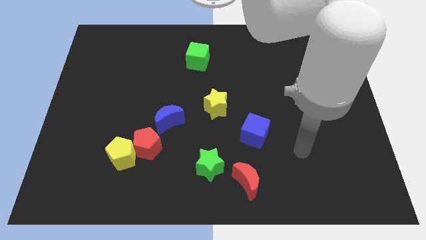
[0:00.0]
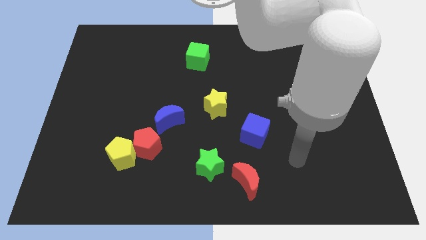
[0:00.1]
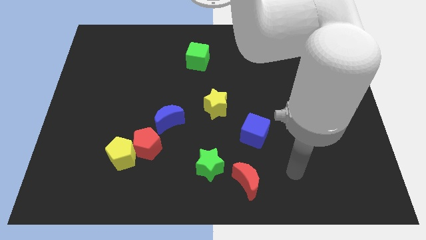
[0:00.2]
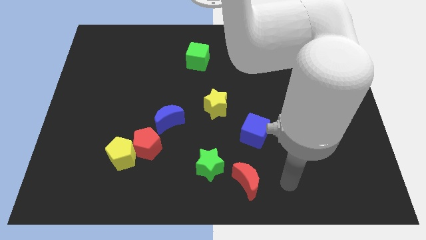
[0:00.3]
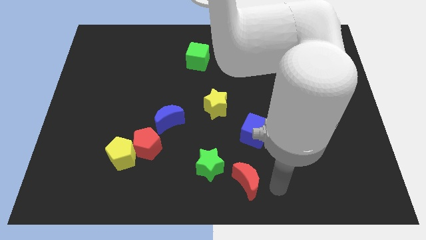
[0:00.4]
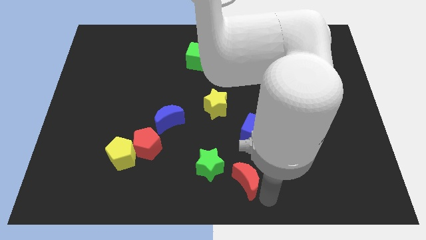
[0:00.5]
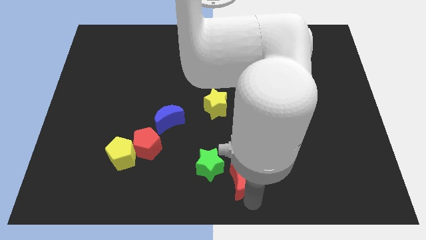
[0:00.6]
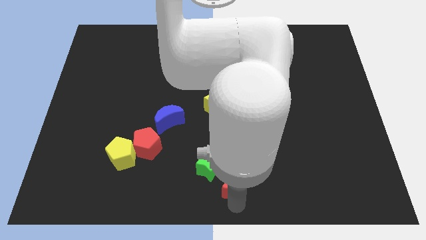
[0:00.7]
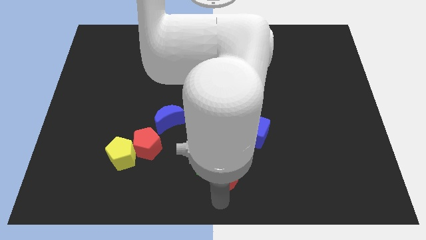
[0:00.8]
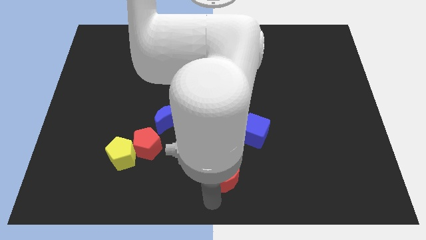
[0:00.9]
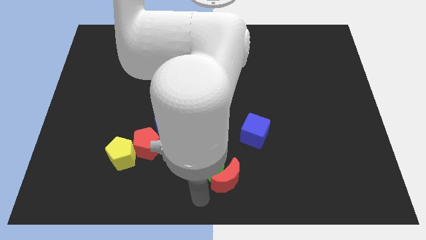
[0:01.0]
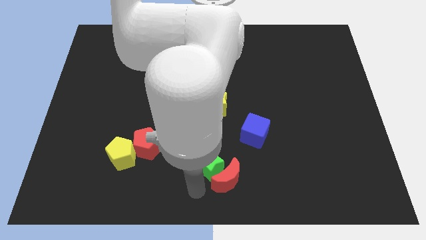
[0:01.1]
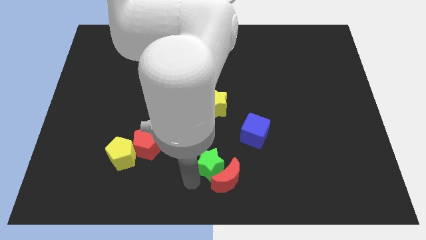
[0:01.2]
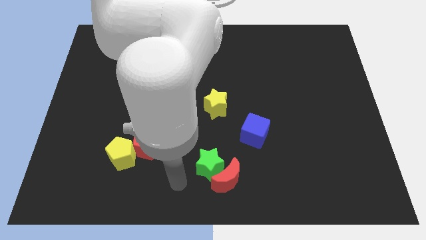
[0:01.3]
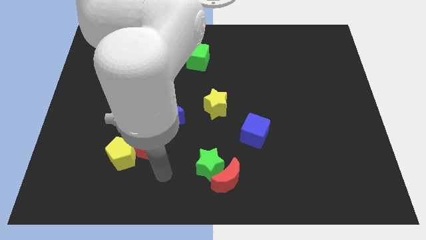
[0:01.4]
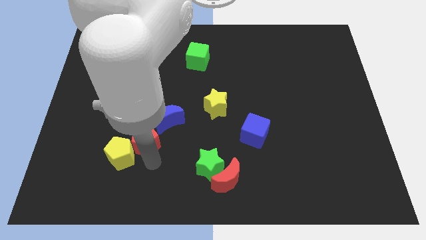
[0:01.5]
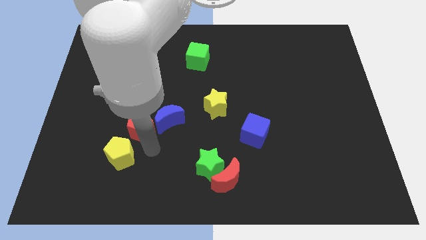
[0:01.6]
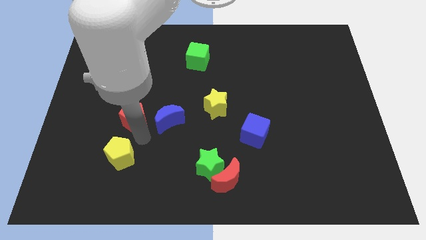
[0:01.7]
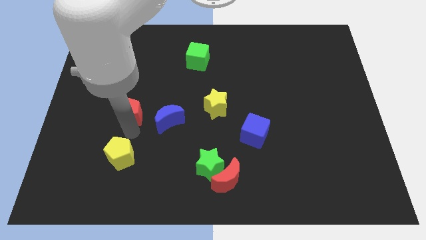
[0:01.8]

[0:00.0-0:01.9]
move the yellow pentagon away from the red pentagon

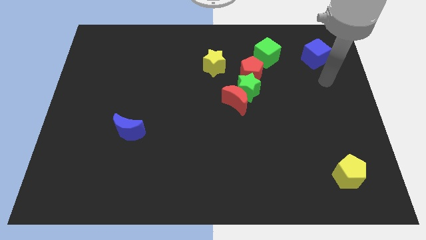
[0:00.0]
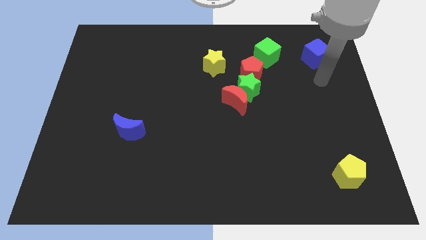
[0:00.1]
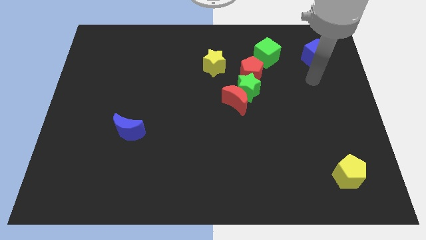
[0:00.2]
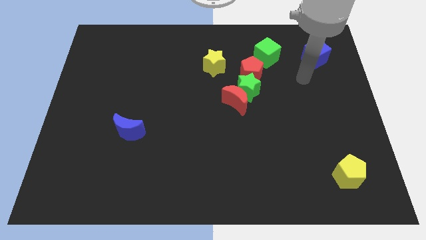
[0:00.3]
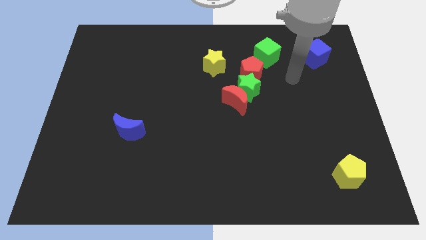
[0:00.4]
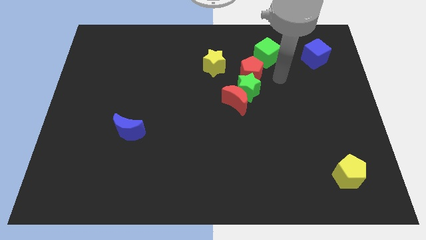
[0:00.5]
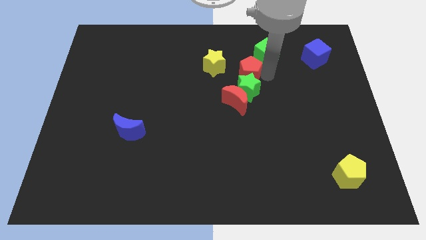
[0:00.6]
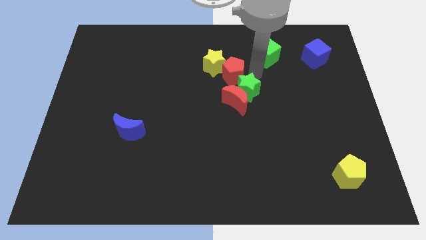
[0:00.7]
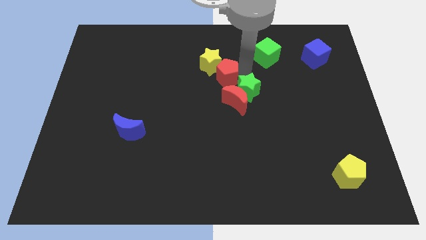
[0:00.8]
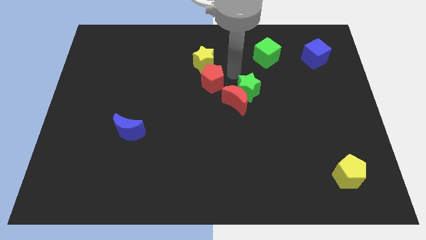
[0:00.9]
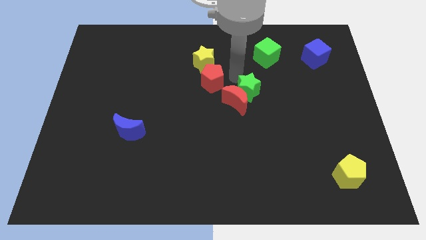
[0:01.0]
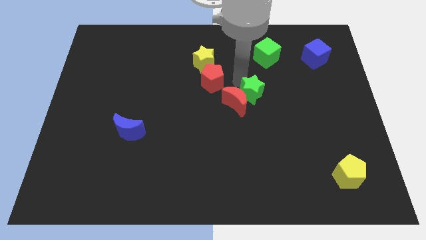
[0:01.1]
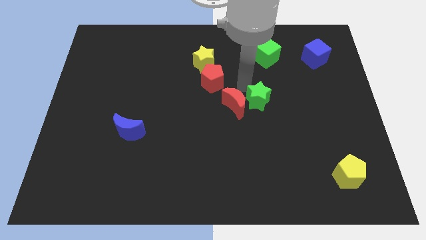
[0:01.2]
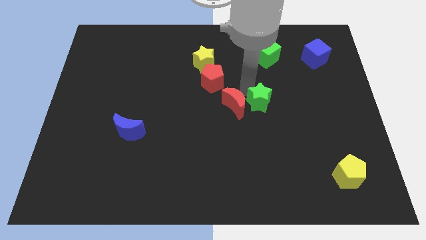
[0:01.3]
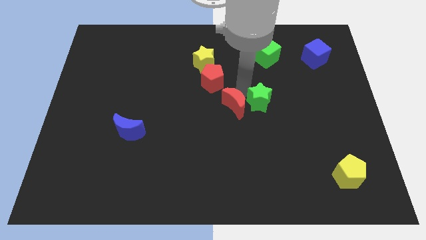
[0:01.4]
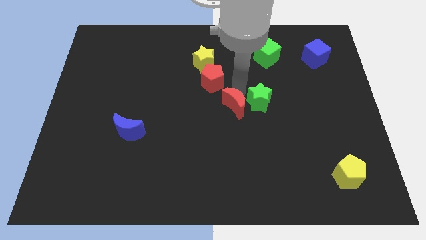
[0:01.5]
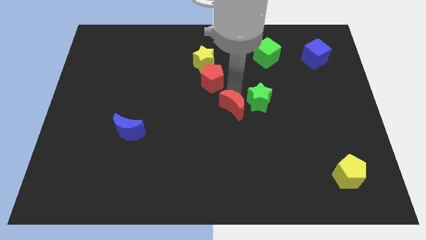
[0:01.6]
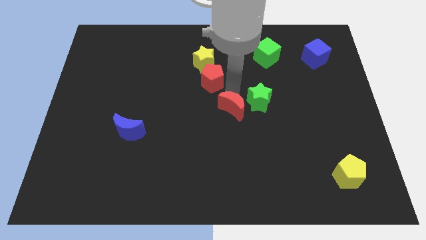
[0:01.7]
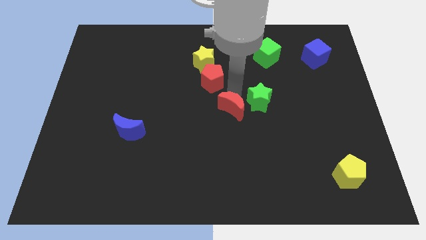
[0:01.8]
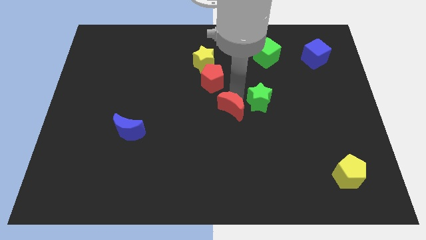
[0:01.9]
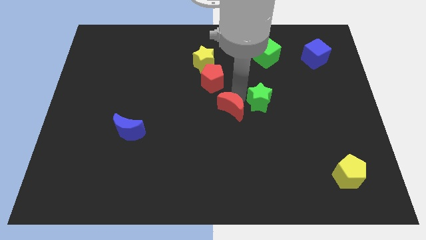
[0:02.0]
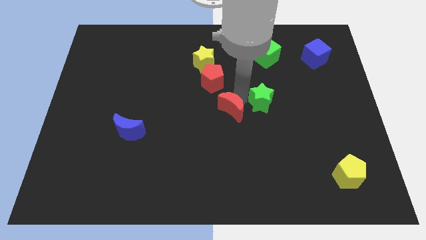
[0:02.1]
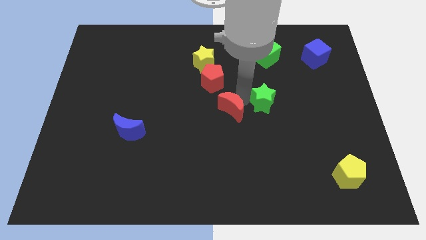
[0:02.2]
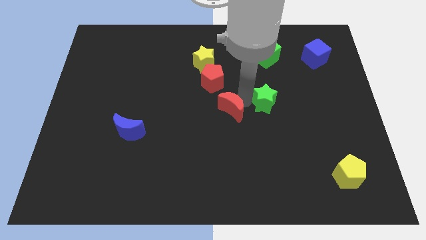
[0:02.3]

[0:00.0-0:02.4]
pull the green star apart from the red moon and red pentagon

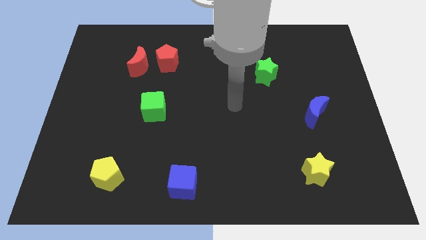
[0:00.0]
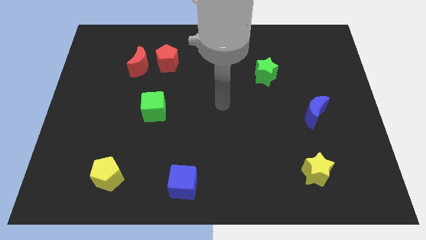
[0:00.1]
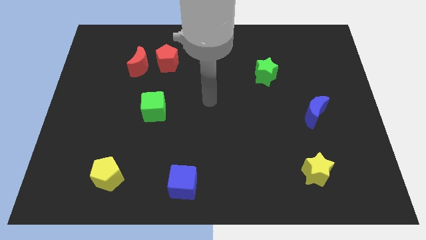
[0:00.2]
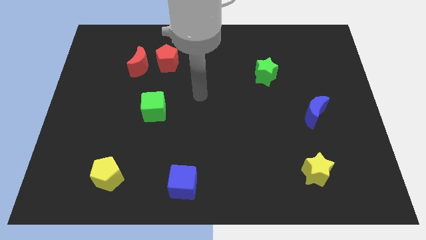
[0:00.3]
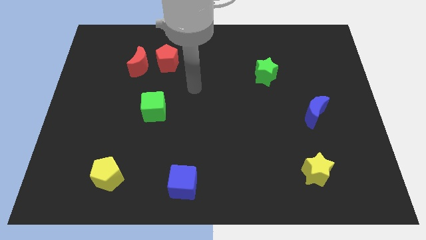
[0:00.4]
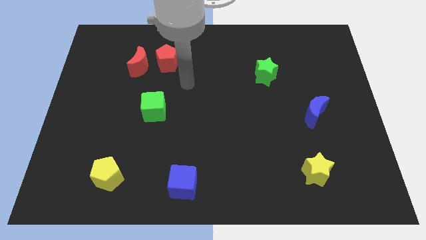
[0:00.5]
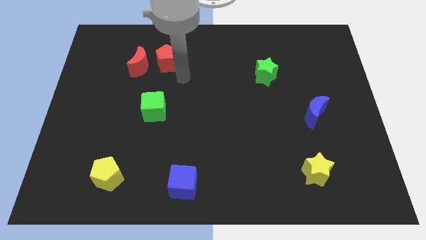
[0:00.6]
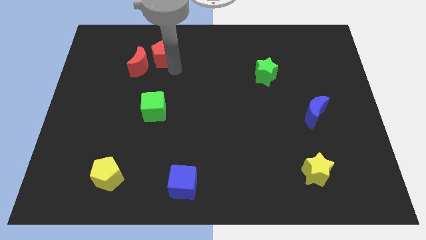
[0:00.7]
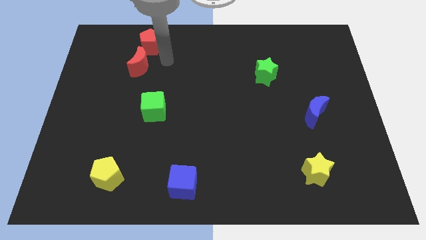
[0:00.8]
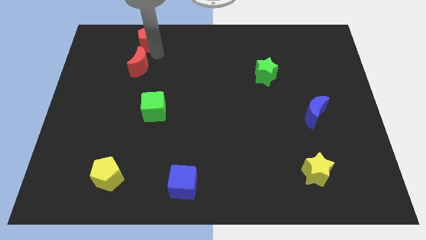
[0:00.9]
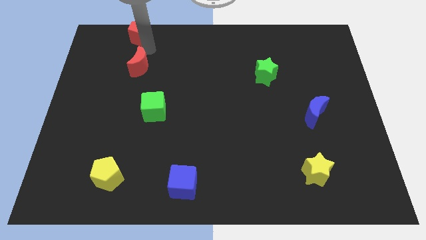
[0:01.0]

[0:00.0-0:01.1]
separate the red moon from the red pentagon

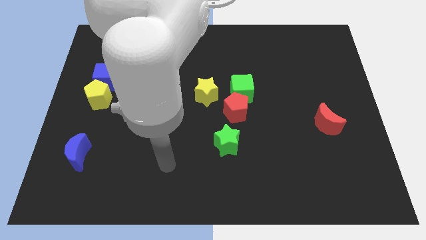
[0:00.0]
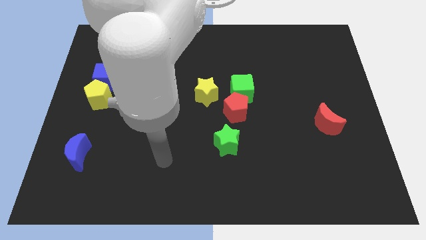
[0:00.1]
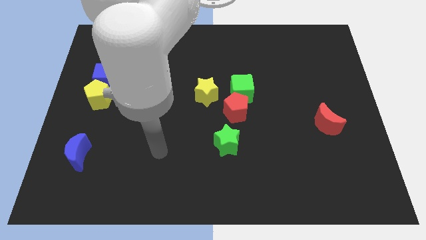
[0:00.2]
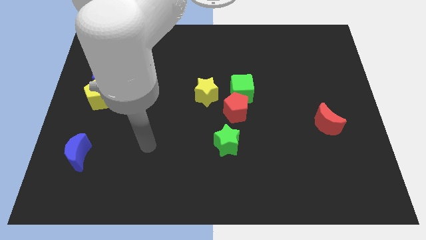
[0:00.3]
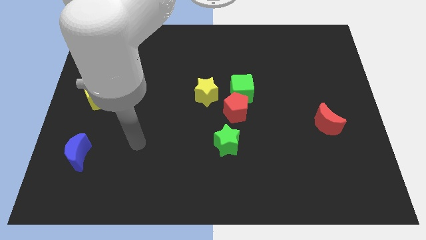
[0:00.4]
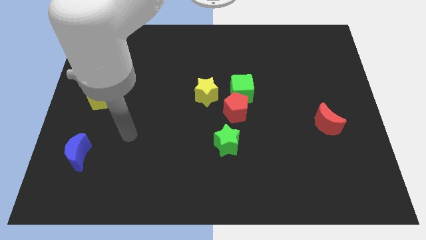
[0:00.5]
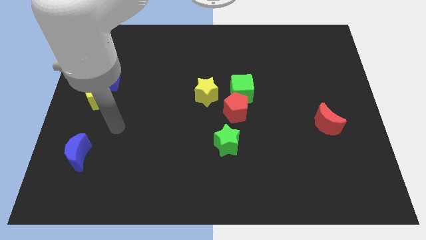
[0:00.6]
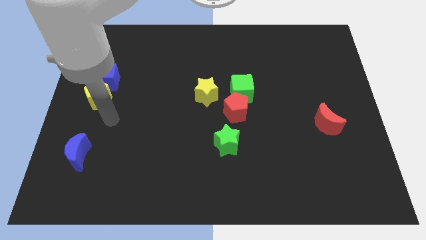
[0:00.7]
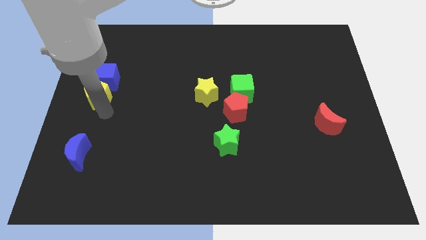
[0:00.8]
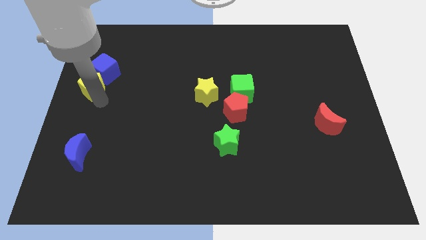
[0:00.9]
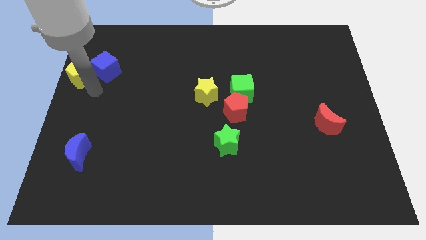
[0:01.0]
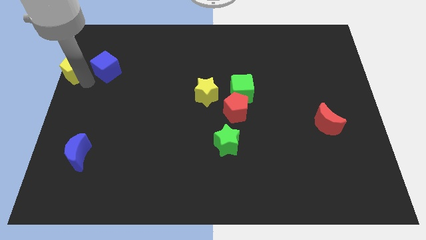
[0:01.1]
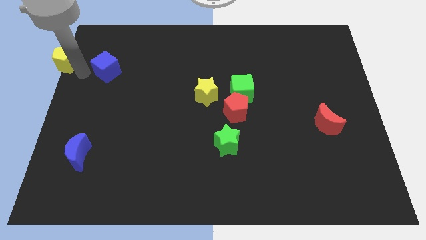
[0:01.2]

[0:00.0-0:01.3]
separate the blue cube from the yellow pentagon

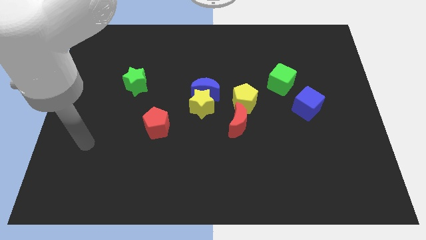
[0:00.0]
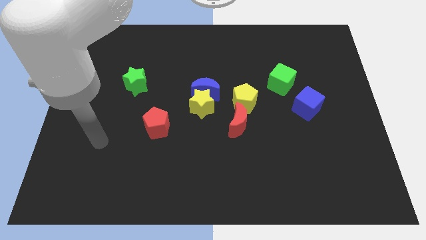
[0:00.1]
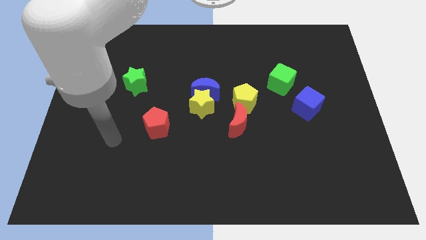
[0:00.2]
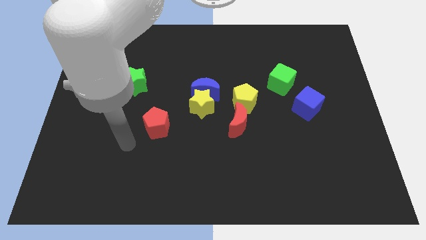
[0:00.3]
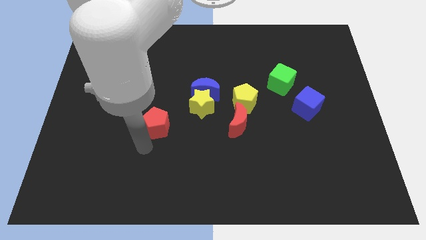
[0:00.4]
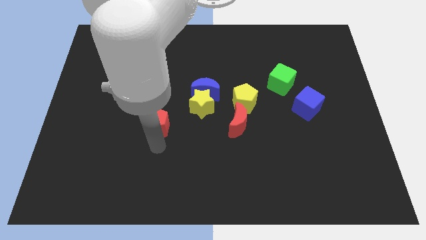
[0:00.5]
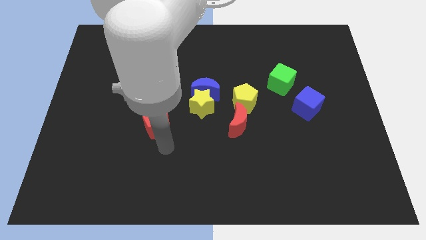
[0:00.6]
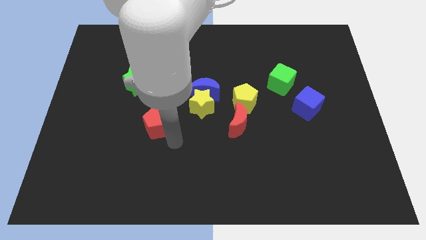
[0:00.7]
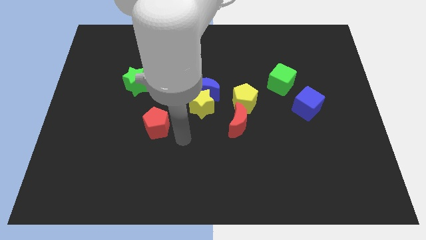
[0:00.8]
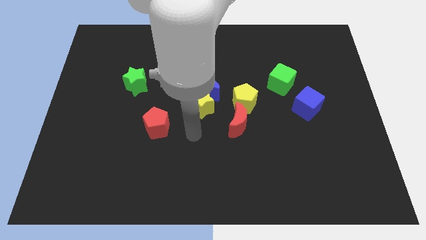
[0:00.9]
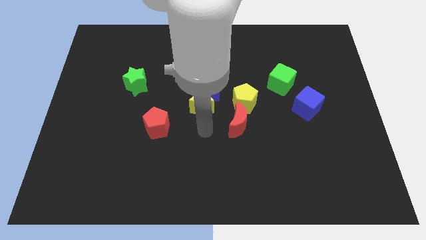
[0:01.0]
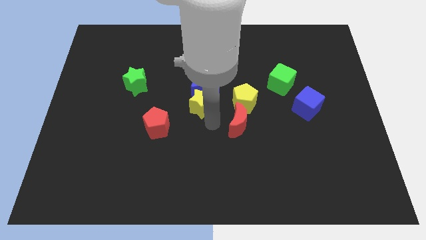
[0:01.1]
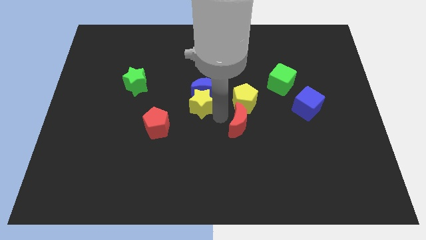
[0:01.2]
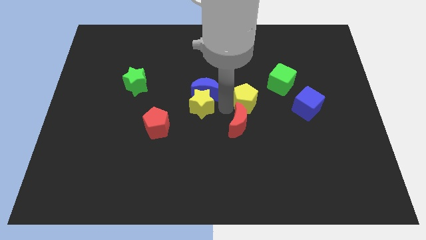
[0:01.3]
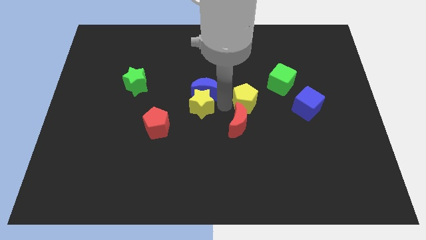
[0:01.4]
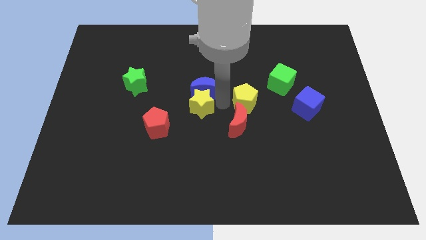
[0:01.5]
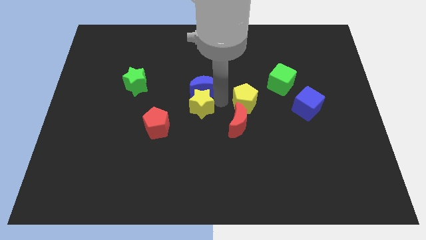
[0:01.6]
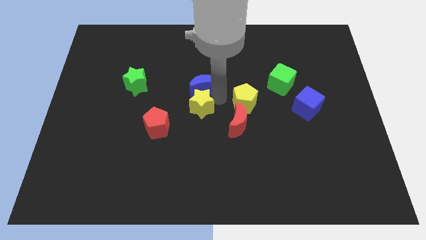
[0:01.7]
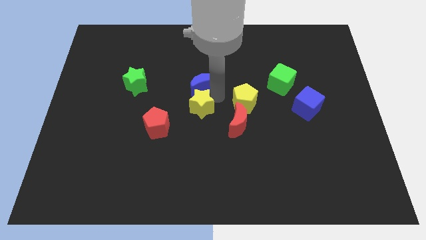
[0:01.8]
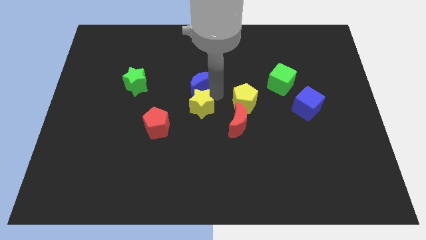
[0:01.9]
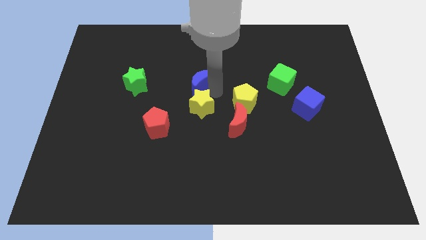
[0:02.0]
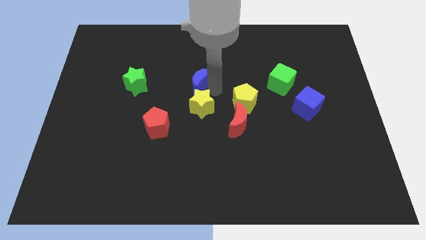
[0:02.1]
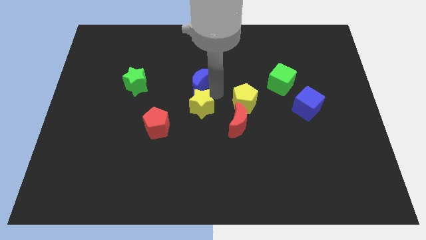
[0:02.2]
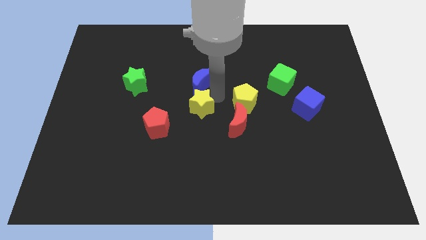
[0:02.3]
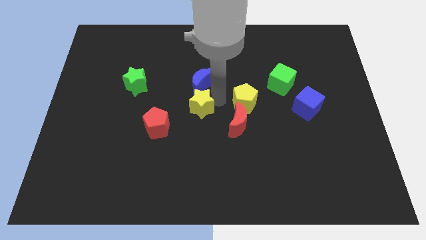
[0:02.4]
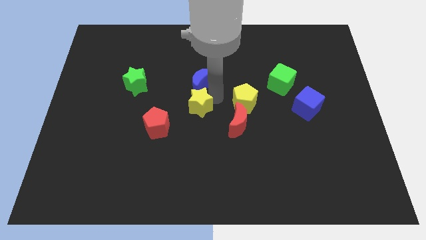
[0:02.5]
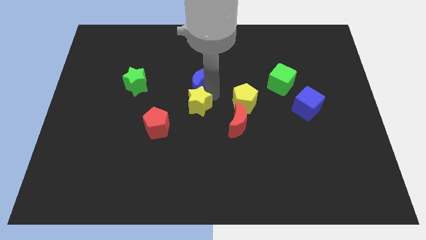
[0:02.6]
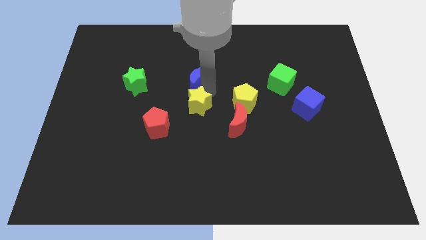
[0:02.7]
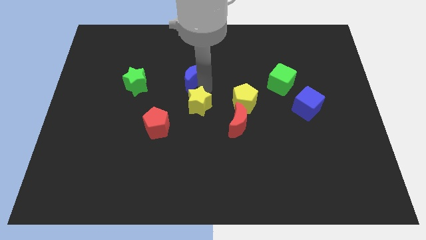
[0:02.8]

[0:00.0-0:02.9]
pull the blue moon apart from the yellow star and yellow pentagon
